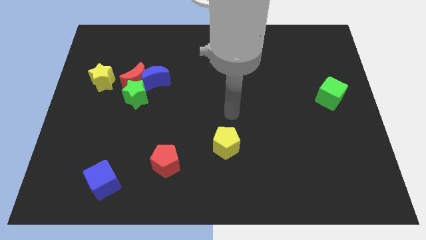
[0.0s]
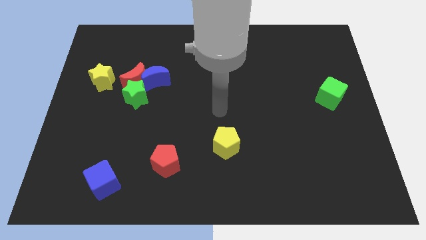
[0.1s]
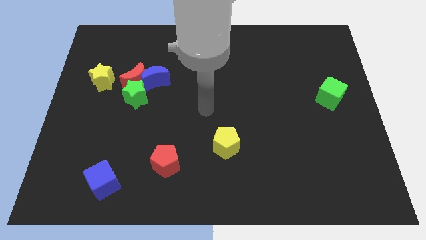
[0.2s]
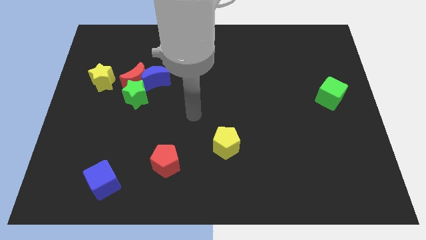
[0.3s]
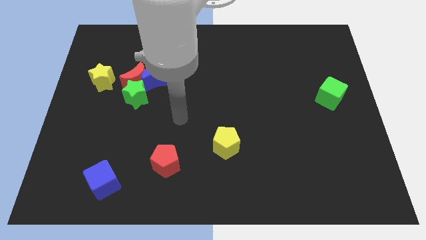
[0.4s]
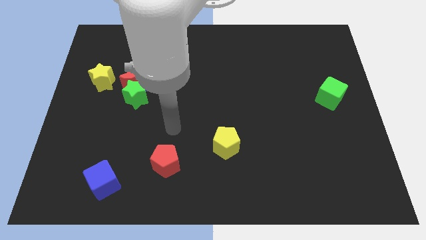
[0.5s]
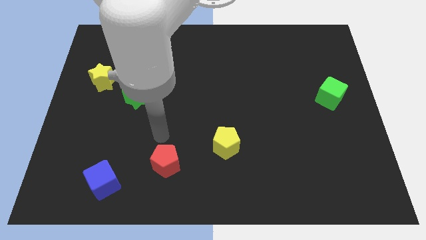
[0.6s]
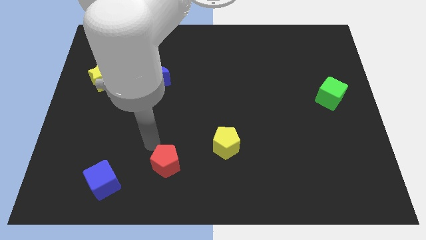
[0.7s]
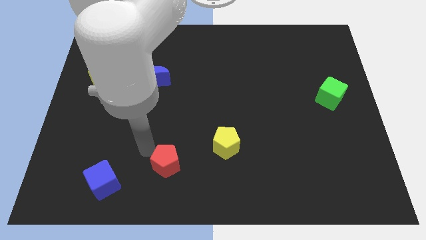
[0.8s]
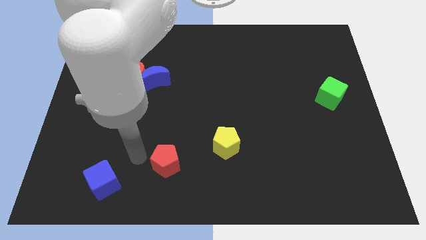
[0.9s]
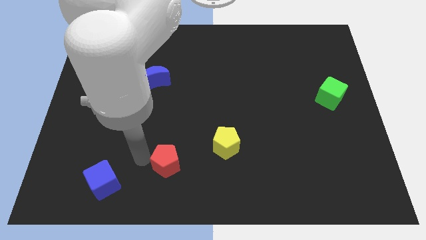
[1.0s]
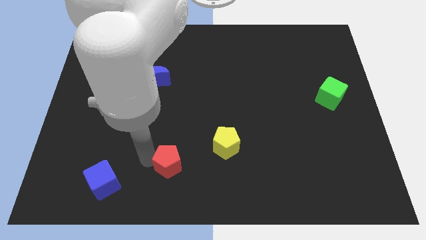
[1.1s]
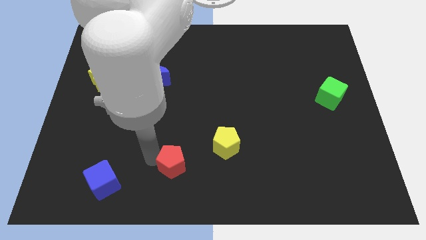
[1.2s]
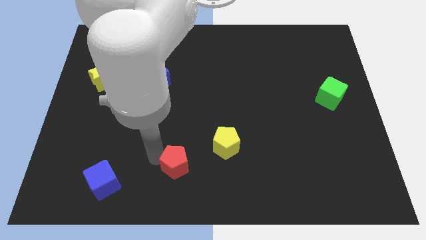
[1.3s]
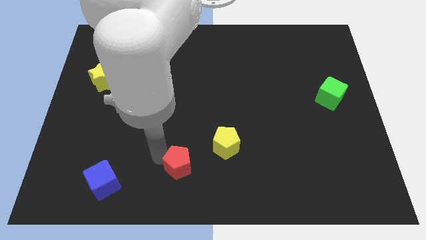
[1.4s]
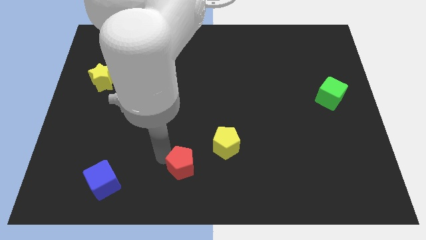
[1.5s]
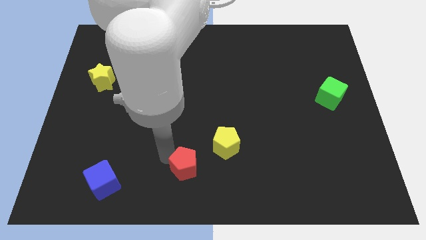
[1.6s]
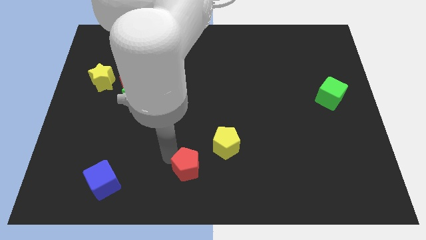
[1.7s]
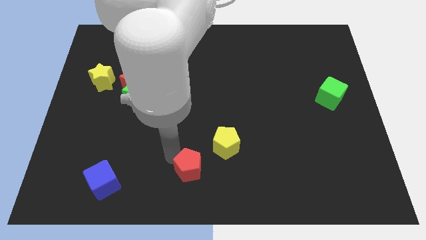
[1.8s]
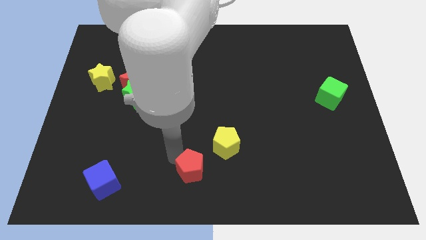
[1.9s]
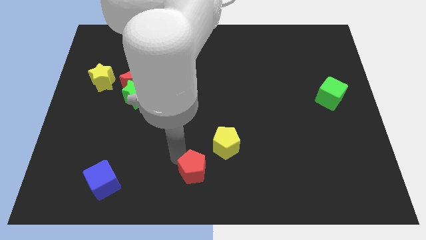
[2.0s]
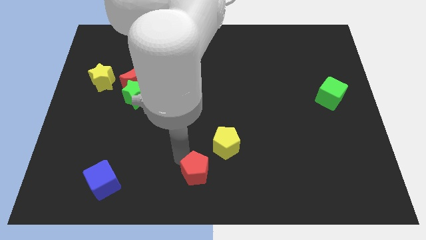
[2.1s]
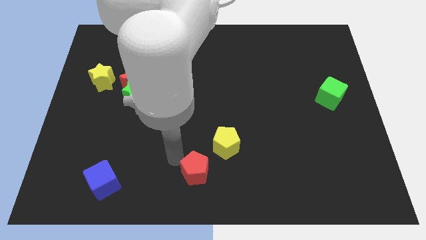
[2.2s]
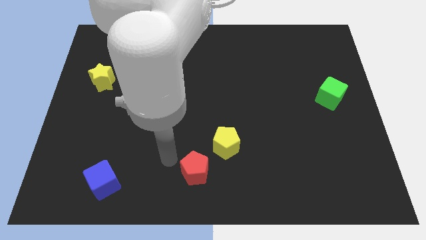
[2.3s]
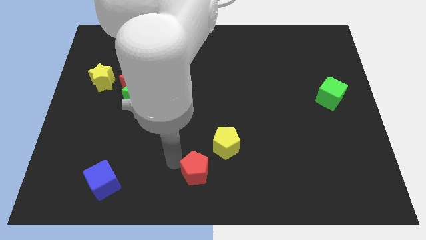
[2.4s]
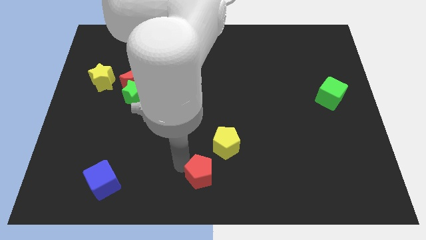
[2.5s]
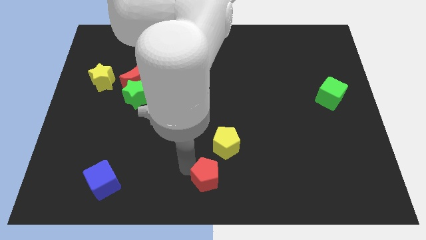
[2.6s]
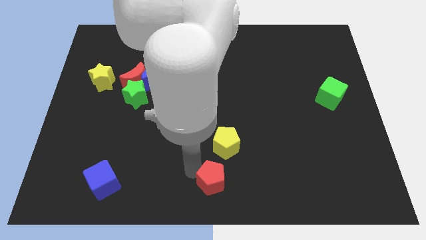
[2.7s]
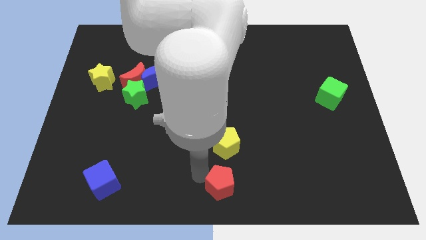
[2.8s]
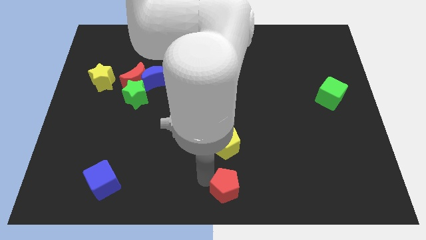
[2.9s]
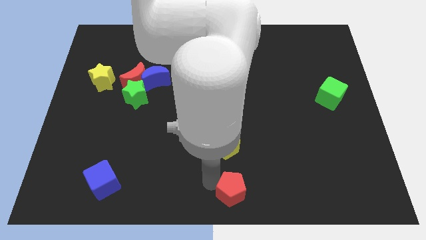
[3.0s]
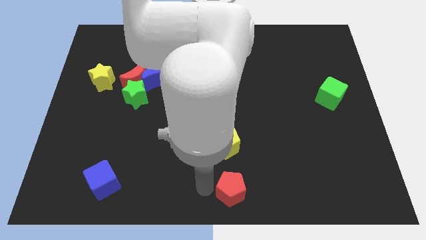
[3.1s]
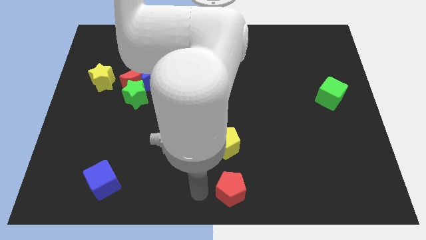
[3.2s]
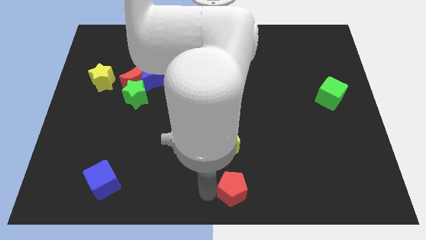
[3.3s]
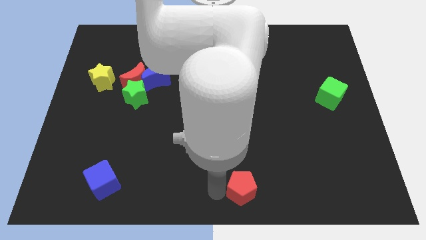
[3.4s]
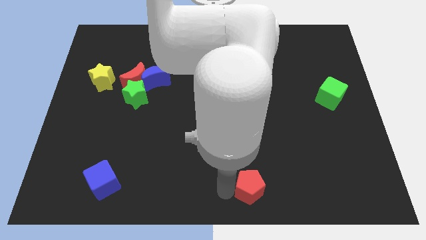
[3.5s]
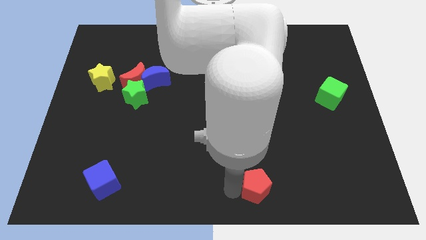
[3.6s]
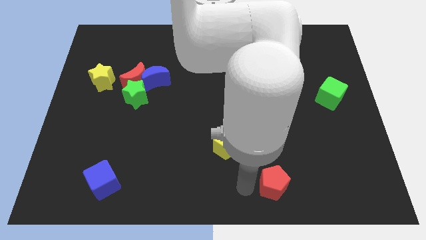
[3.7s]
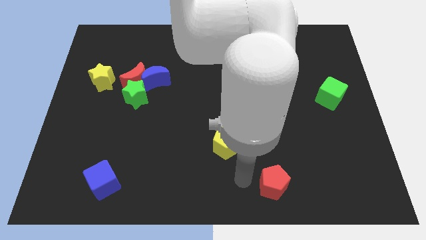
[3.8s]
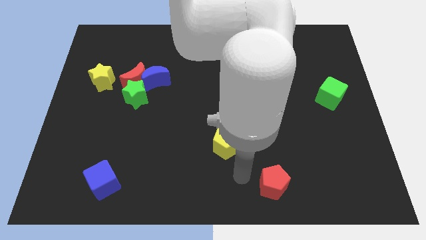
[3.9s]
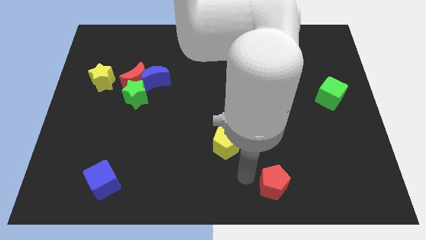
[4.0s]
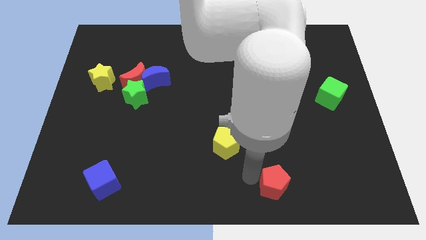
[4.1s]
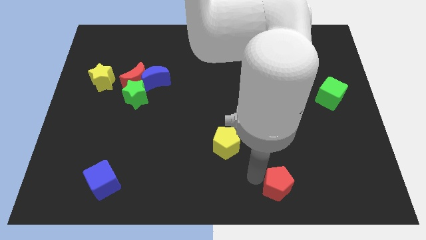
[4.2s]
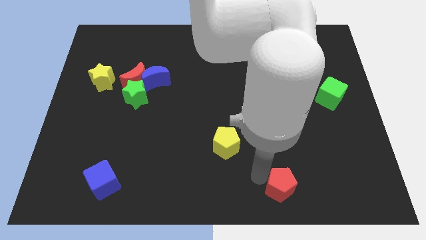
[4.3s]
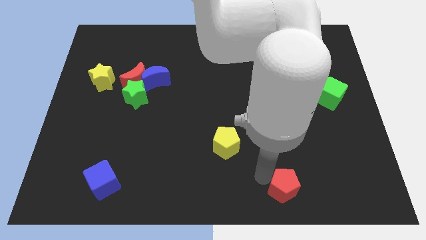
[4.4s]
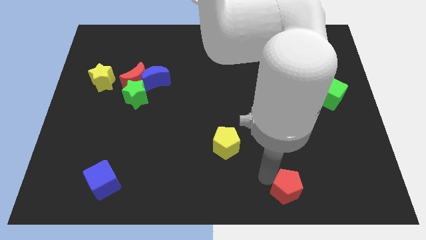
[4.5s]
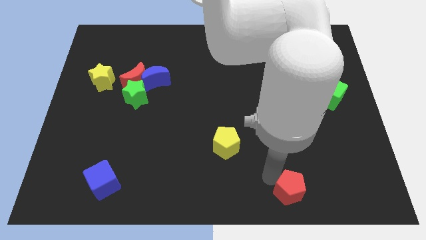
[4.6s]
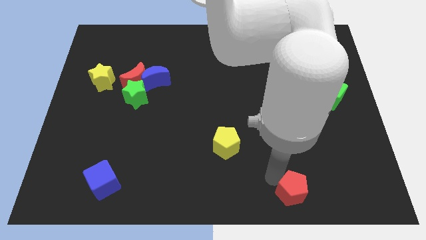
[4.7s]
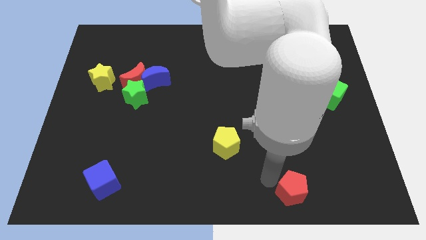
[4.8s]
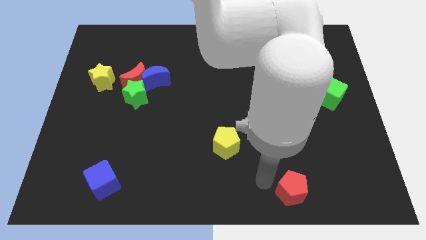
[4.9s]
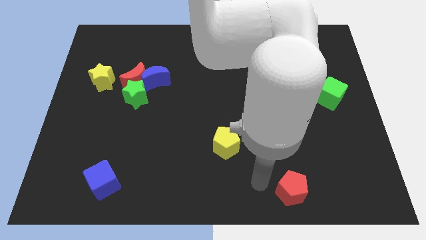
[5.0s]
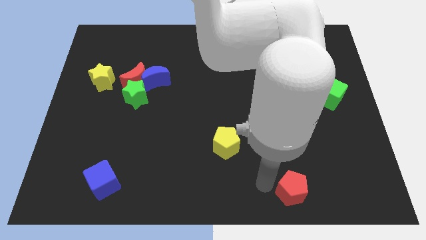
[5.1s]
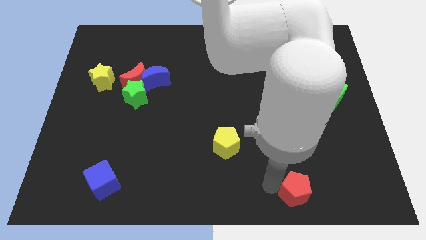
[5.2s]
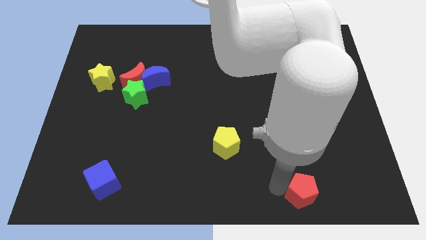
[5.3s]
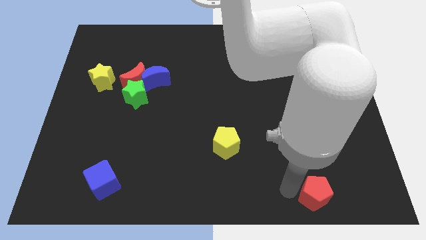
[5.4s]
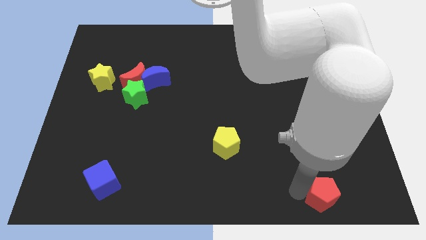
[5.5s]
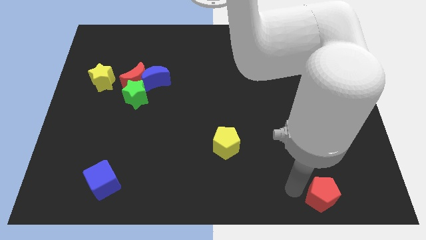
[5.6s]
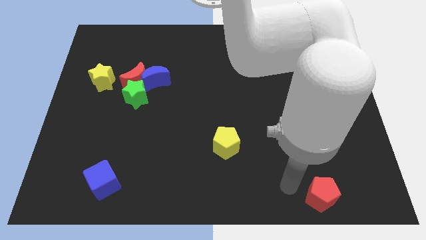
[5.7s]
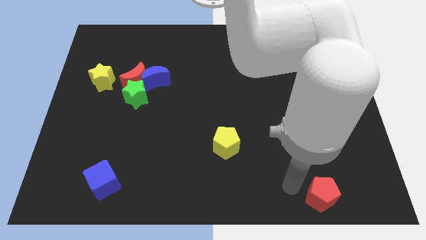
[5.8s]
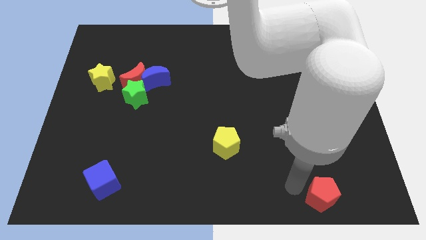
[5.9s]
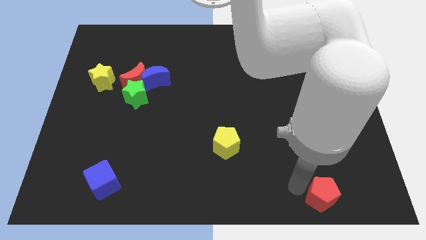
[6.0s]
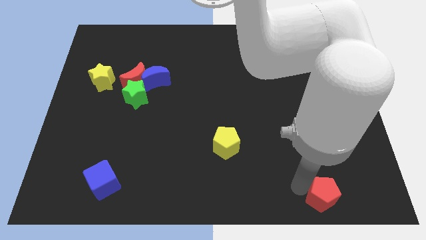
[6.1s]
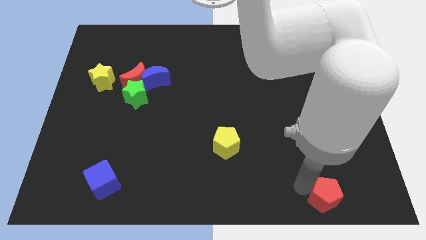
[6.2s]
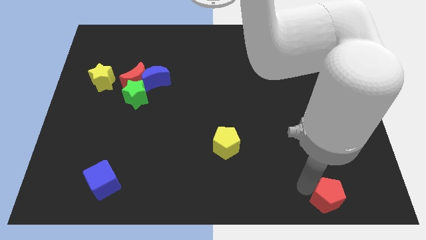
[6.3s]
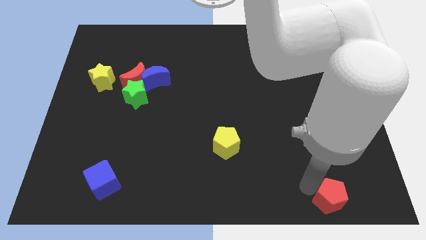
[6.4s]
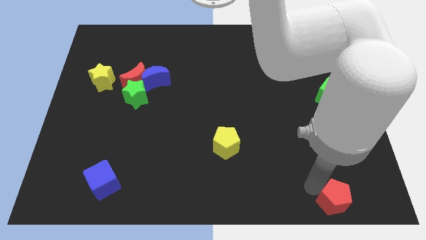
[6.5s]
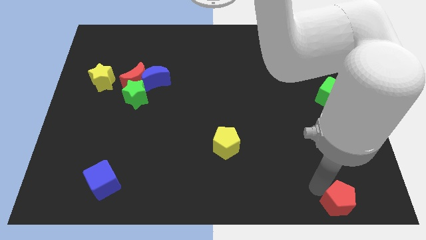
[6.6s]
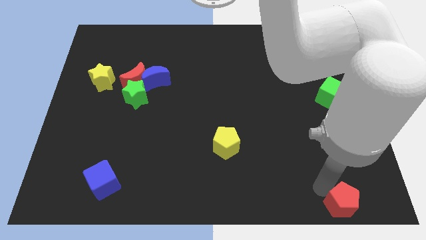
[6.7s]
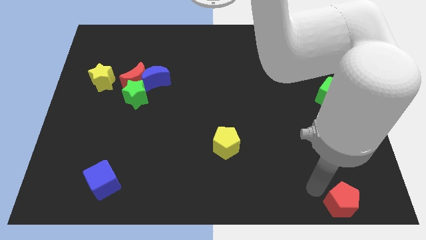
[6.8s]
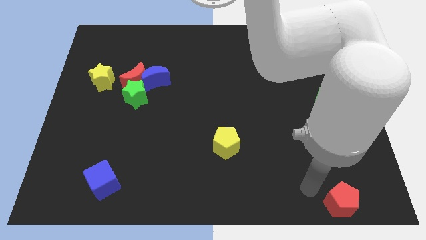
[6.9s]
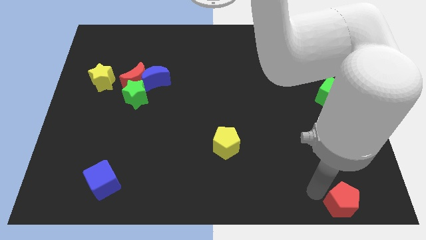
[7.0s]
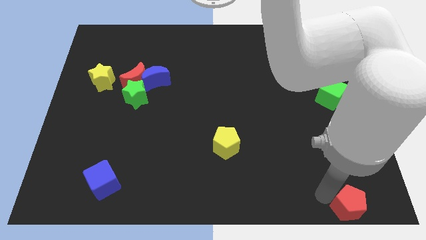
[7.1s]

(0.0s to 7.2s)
slide the red pentagon to the bottom right of the board

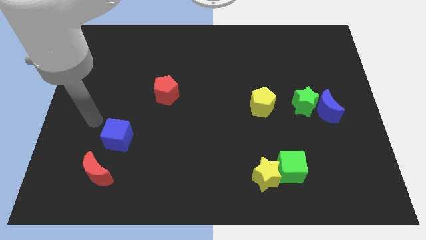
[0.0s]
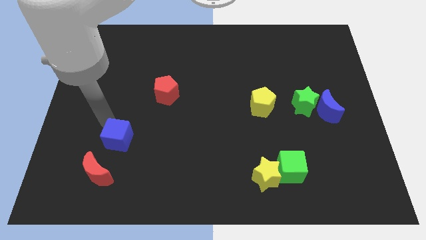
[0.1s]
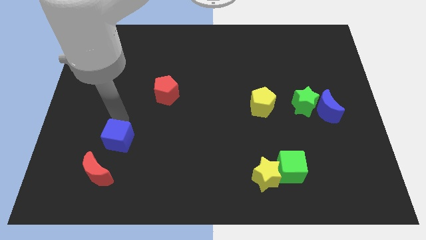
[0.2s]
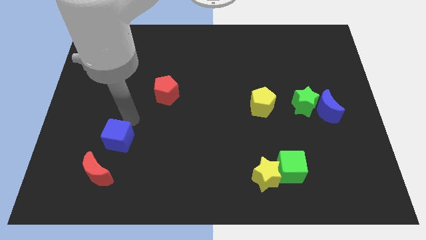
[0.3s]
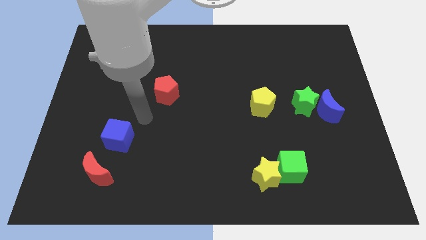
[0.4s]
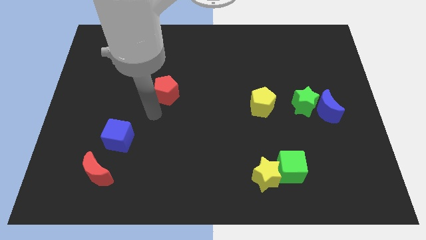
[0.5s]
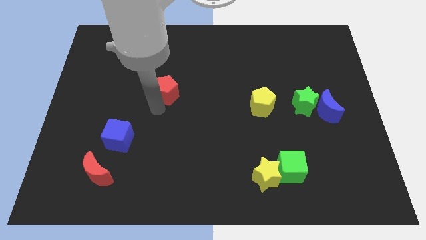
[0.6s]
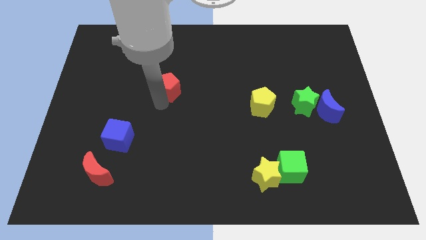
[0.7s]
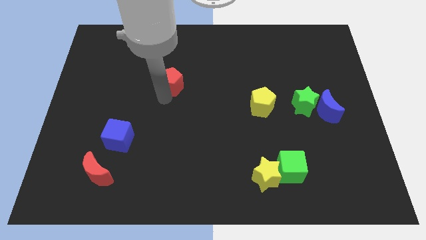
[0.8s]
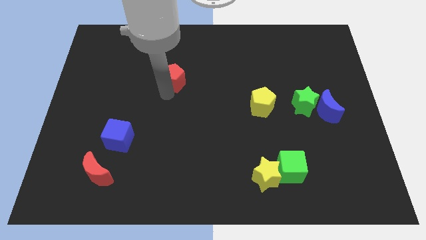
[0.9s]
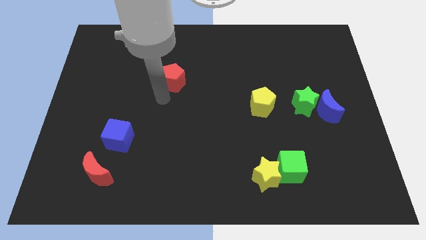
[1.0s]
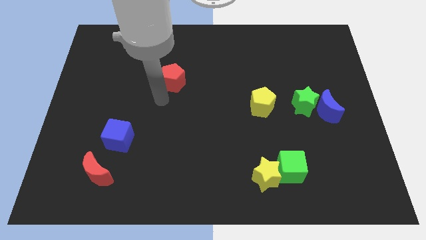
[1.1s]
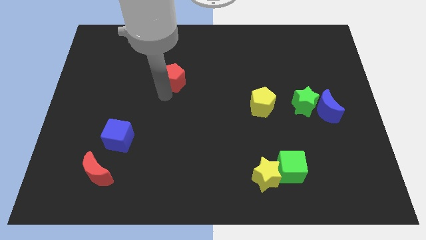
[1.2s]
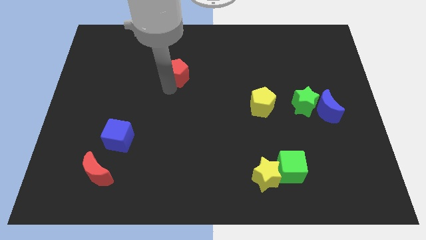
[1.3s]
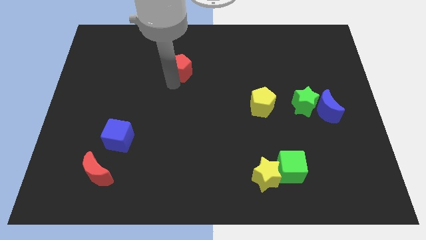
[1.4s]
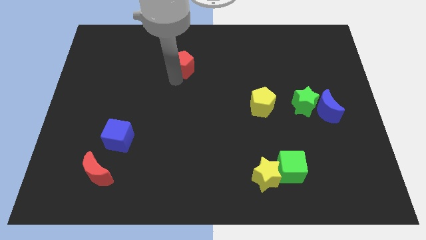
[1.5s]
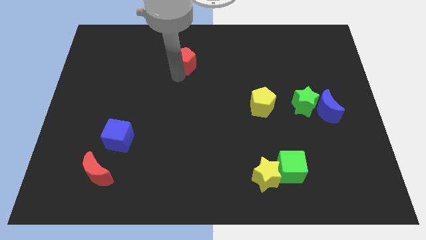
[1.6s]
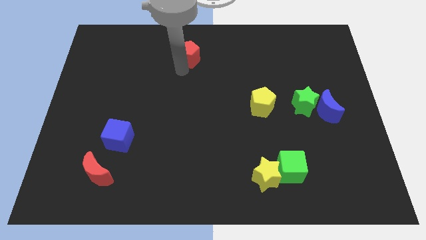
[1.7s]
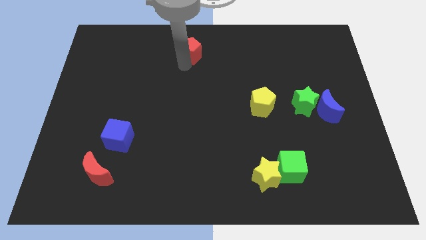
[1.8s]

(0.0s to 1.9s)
move the red pentagon to the top
